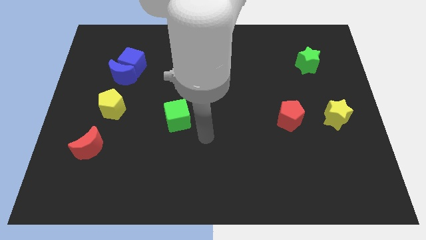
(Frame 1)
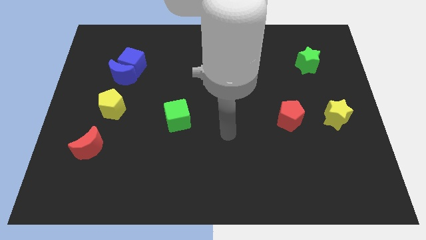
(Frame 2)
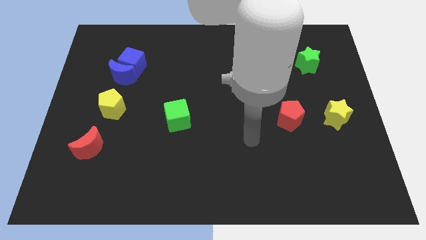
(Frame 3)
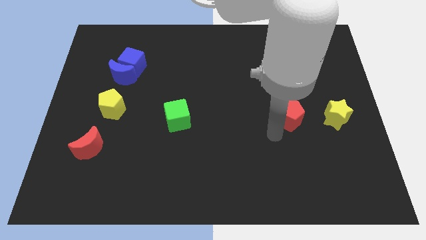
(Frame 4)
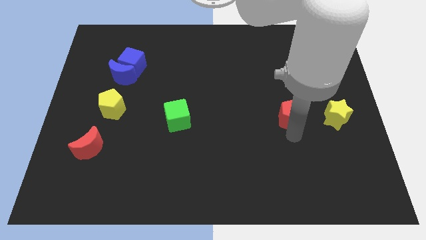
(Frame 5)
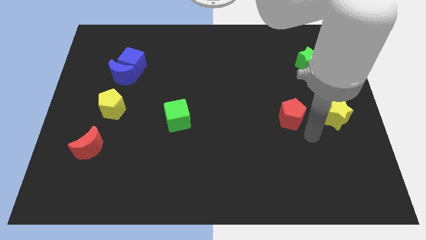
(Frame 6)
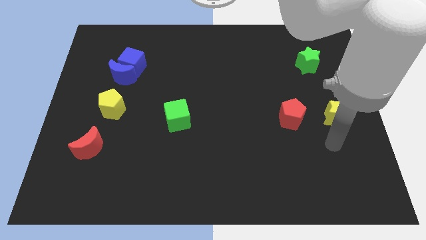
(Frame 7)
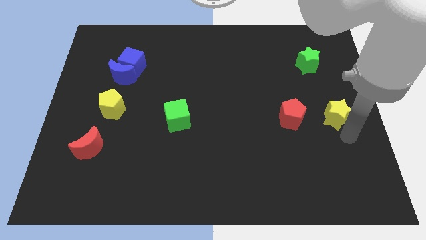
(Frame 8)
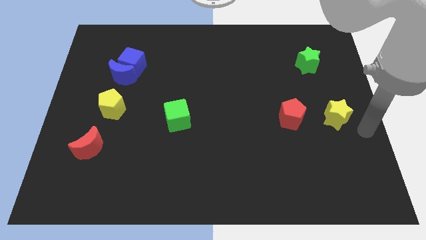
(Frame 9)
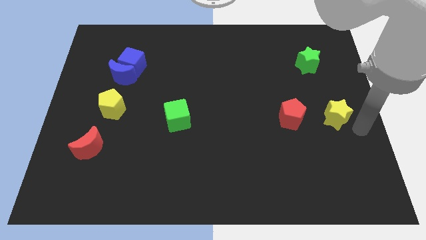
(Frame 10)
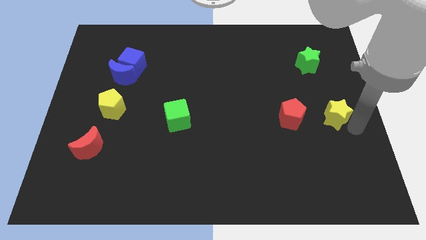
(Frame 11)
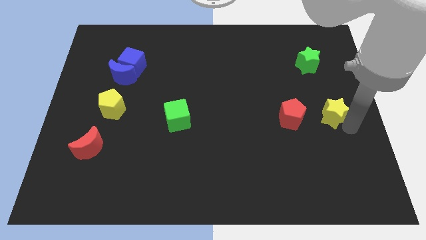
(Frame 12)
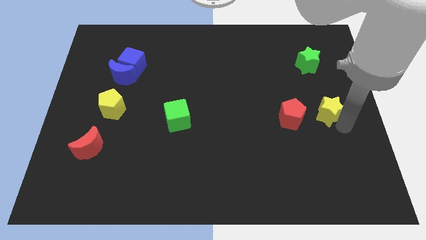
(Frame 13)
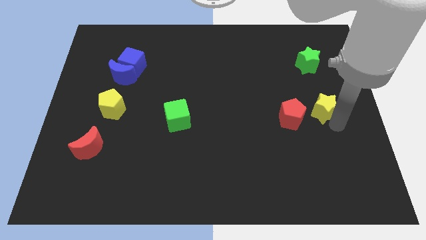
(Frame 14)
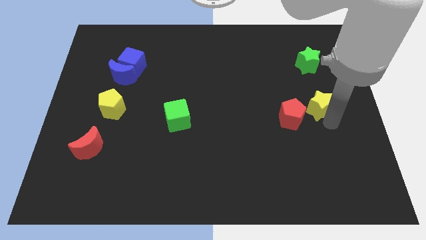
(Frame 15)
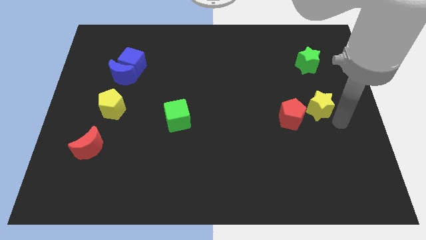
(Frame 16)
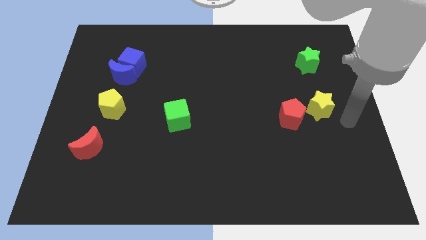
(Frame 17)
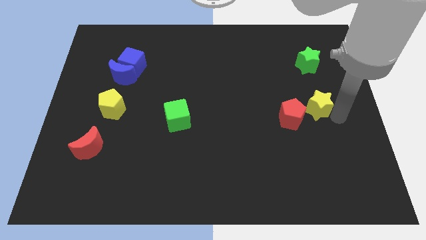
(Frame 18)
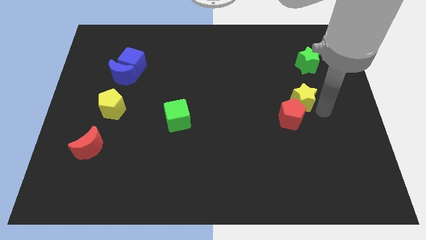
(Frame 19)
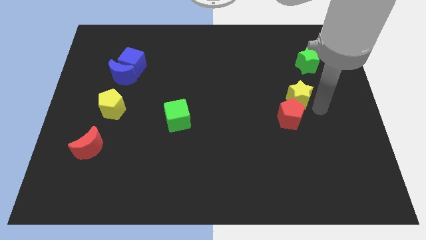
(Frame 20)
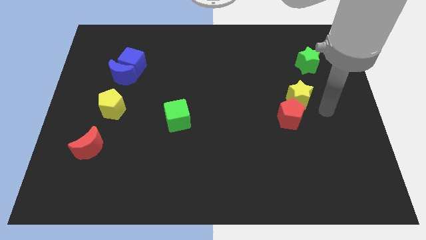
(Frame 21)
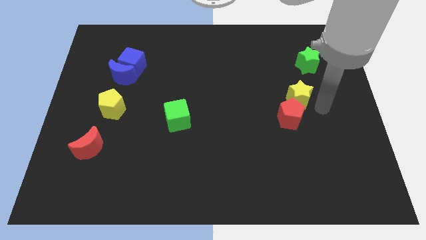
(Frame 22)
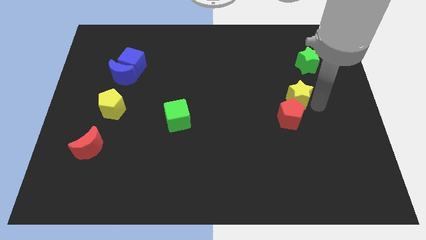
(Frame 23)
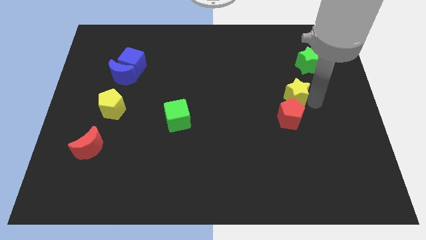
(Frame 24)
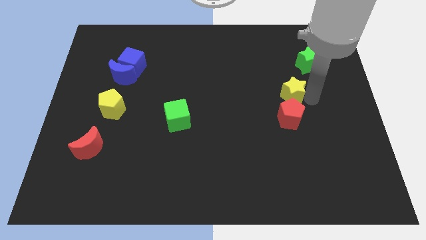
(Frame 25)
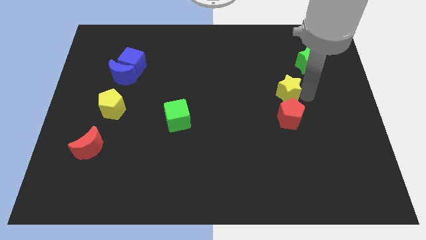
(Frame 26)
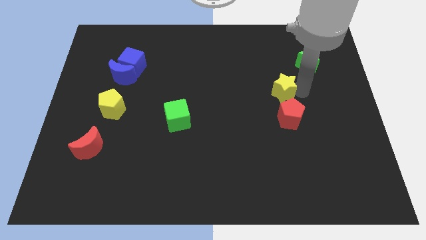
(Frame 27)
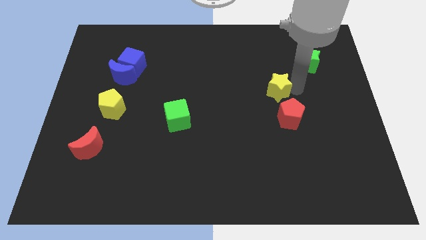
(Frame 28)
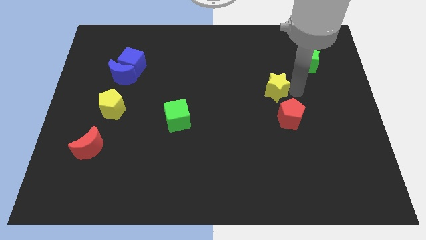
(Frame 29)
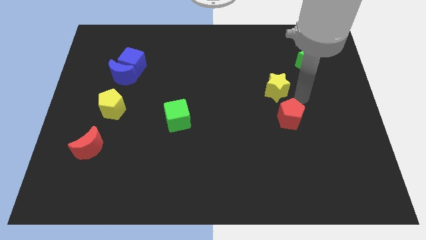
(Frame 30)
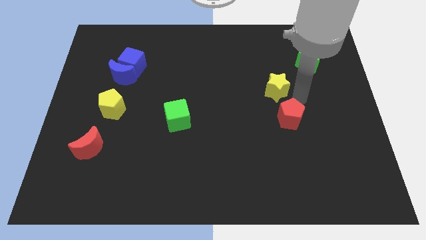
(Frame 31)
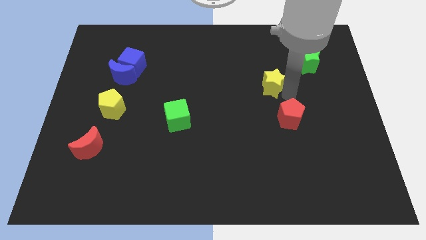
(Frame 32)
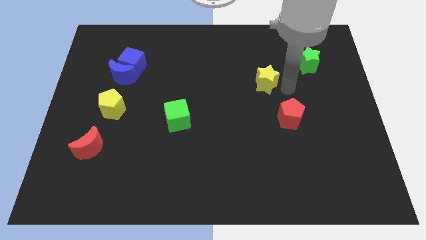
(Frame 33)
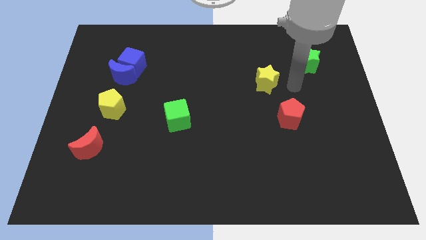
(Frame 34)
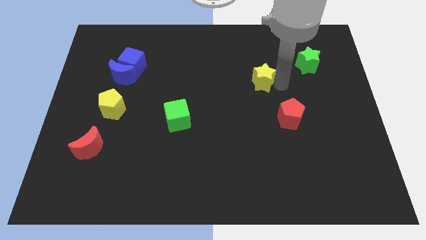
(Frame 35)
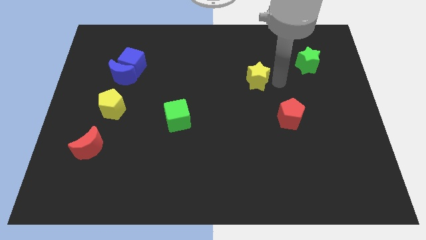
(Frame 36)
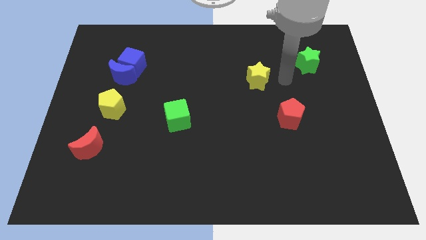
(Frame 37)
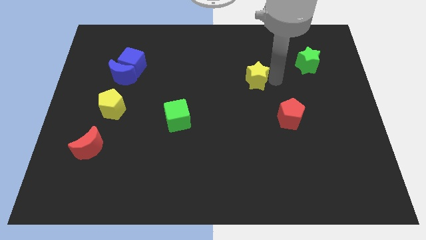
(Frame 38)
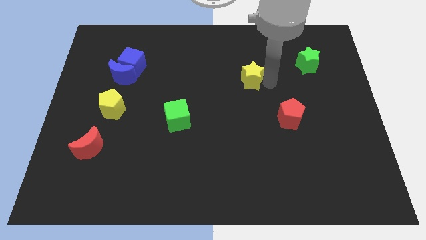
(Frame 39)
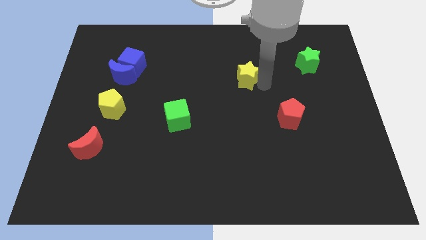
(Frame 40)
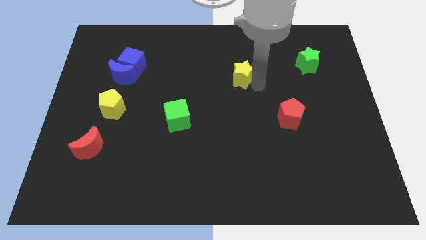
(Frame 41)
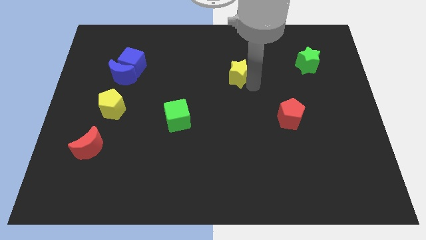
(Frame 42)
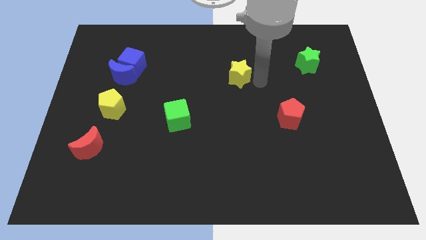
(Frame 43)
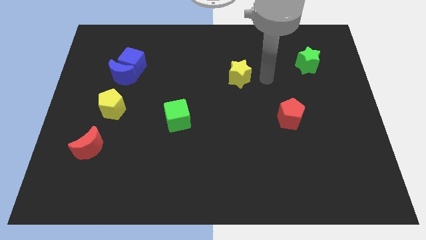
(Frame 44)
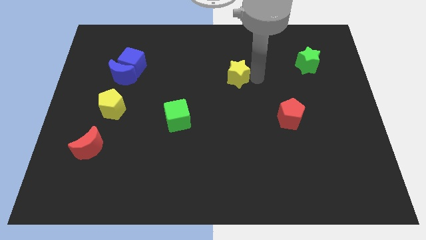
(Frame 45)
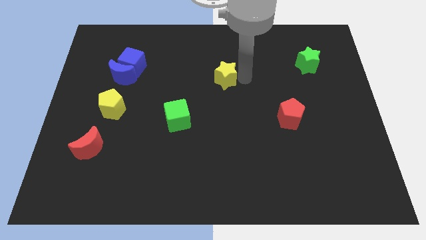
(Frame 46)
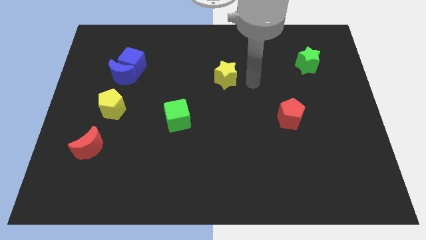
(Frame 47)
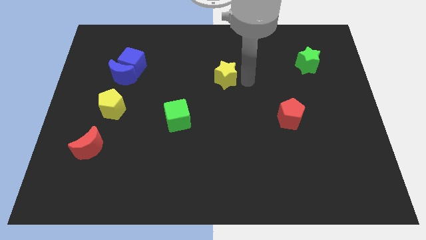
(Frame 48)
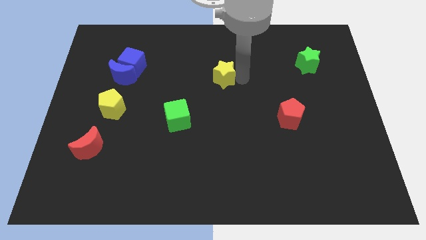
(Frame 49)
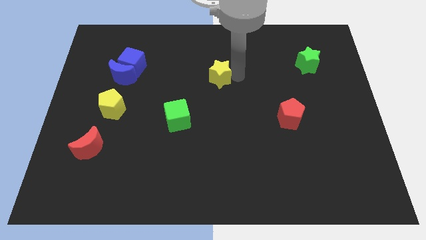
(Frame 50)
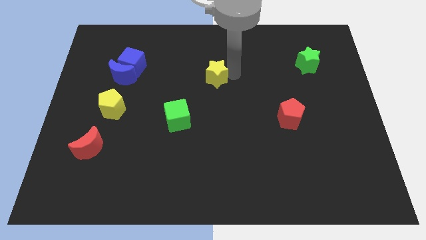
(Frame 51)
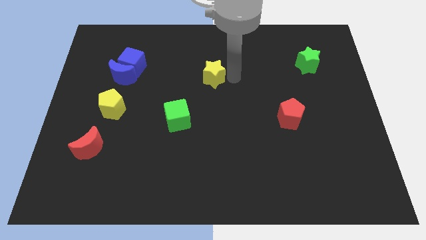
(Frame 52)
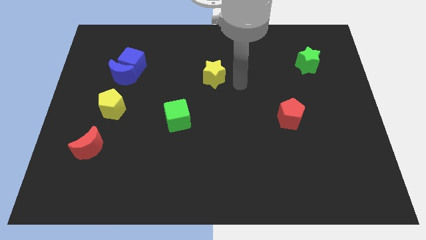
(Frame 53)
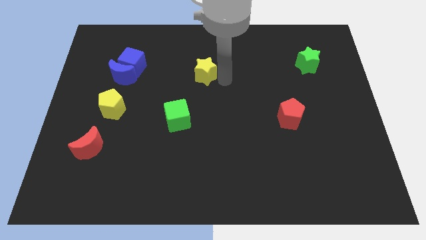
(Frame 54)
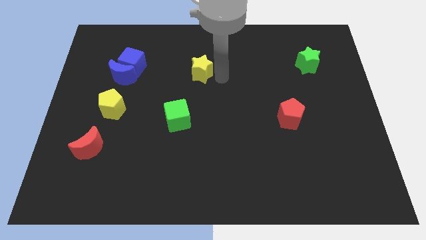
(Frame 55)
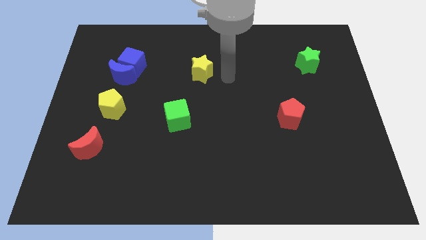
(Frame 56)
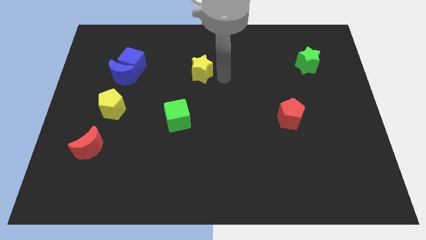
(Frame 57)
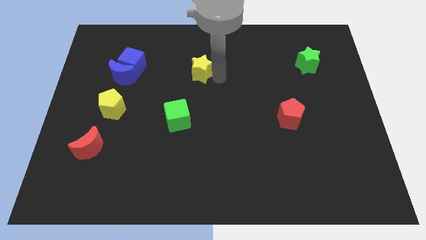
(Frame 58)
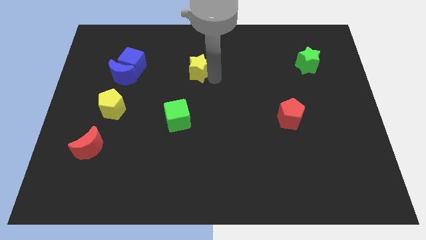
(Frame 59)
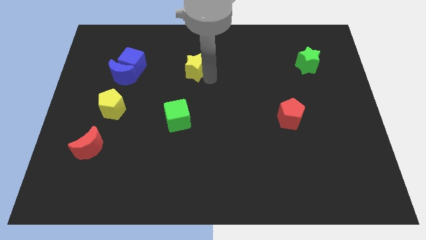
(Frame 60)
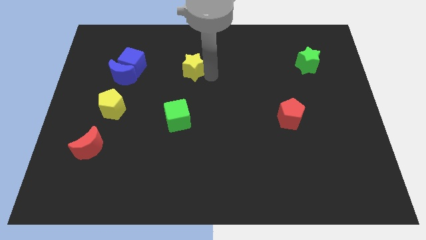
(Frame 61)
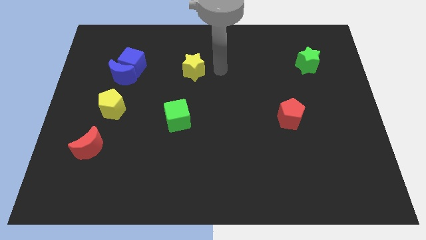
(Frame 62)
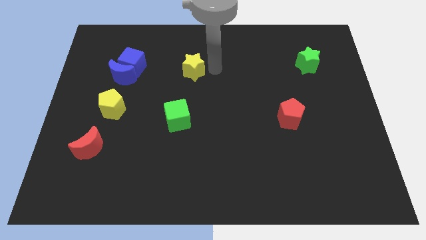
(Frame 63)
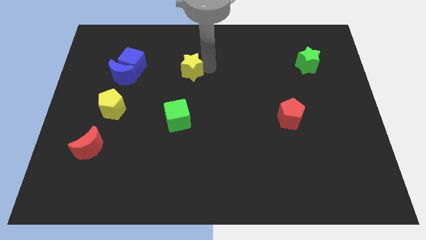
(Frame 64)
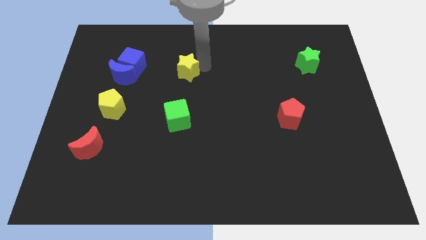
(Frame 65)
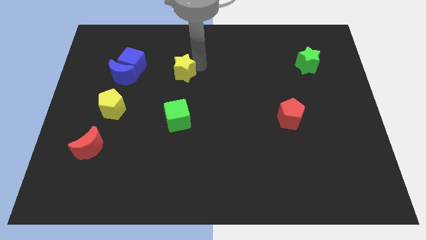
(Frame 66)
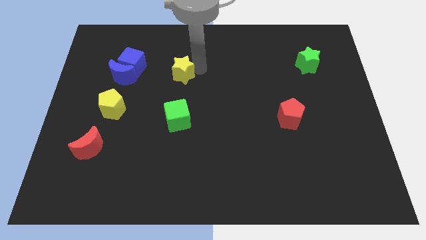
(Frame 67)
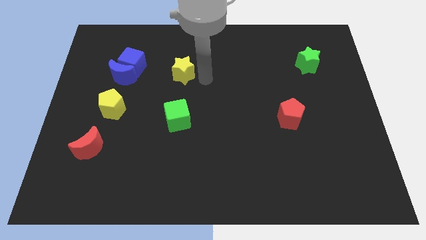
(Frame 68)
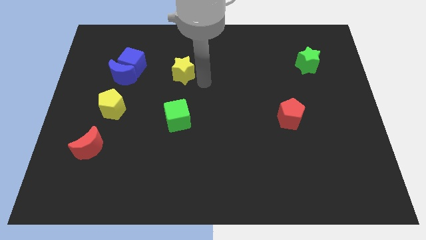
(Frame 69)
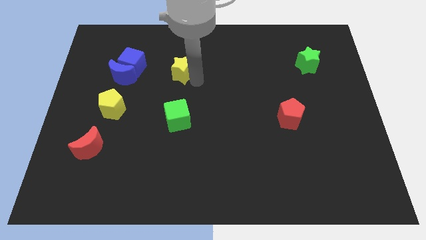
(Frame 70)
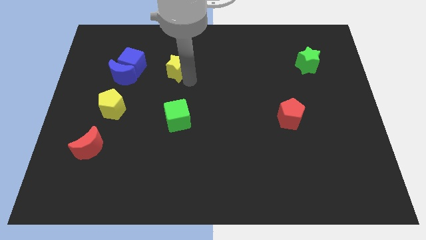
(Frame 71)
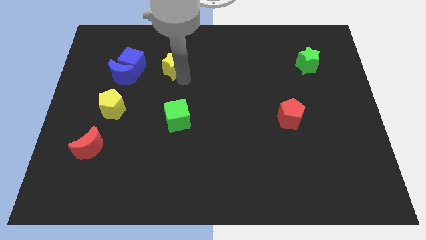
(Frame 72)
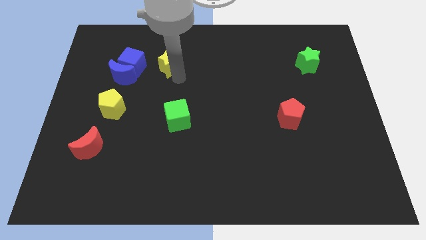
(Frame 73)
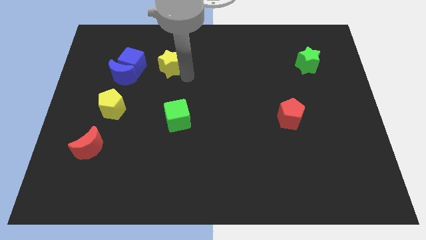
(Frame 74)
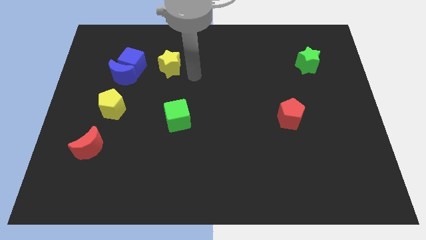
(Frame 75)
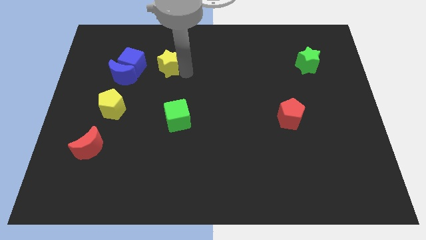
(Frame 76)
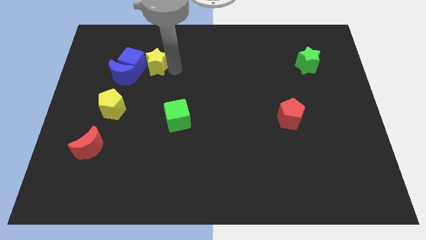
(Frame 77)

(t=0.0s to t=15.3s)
slide the yellow star to the top right side of the blue moon
